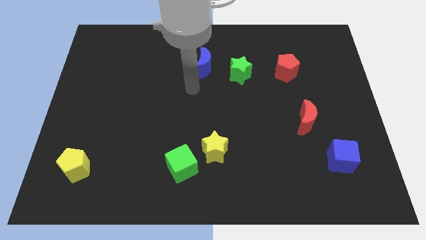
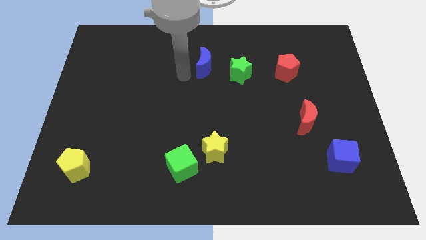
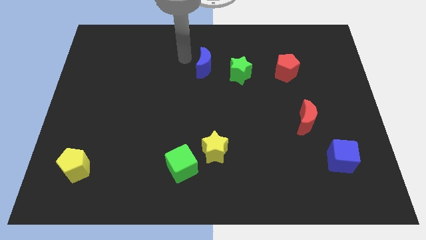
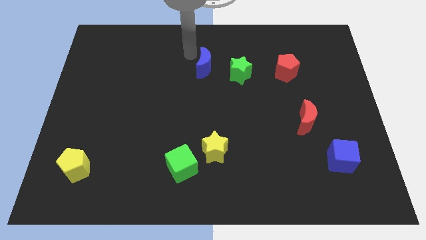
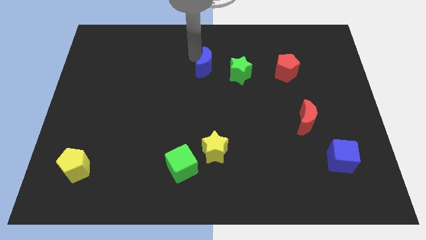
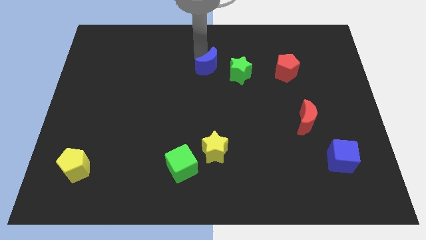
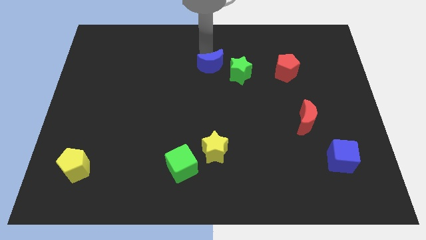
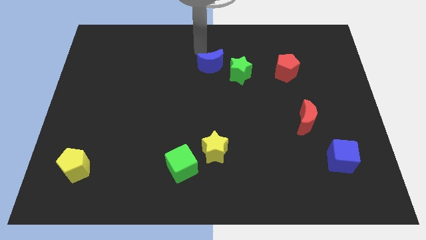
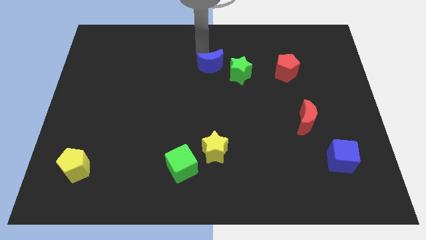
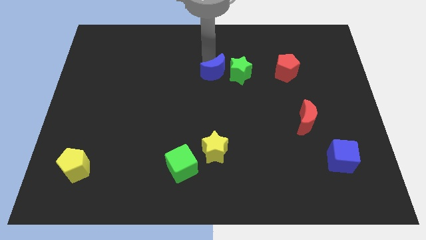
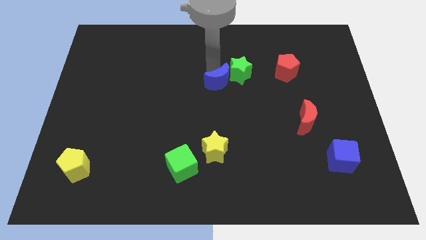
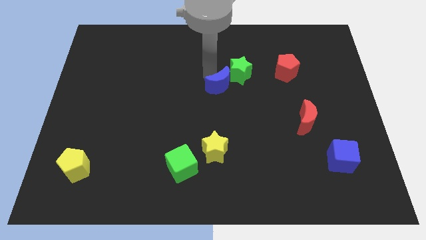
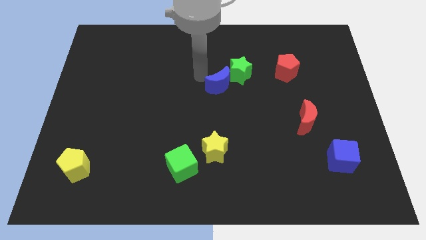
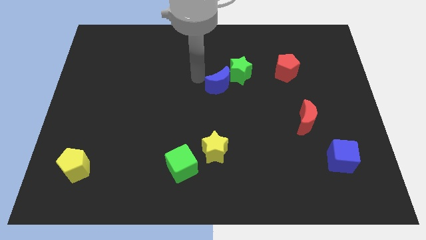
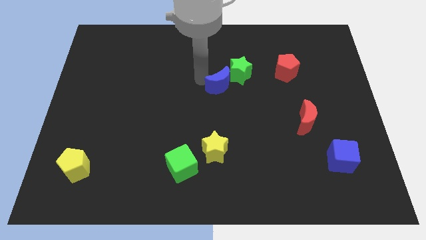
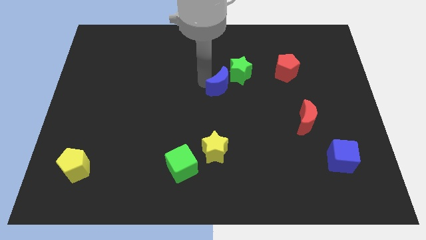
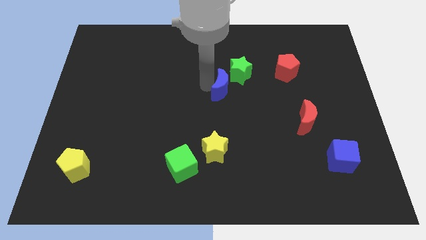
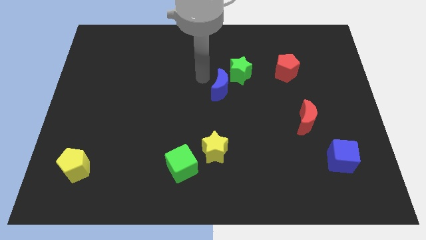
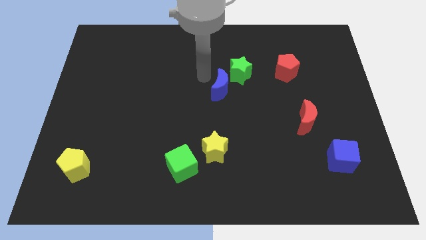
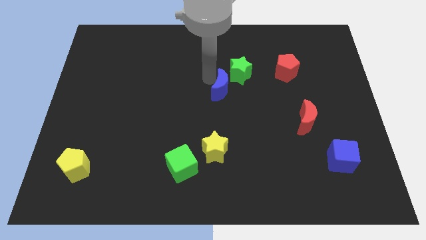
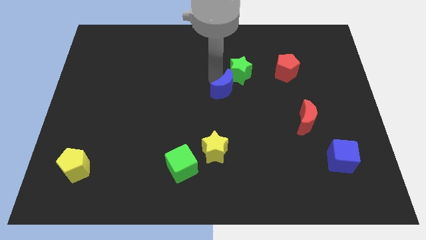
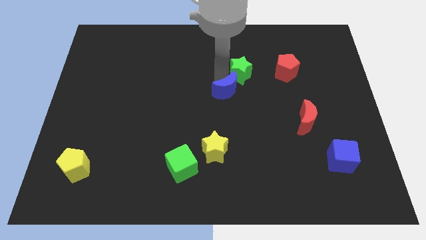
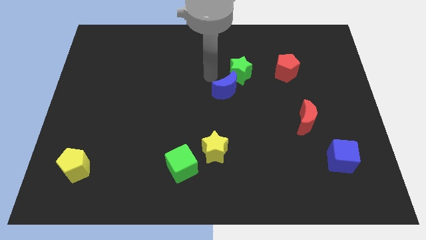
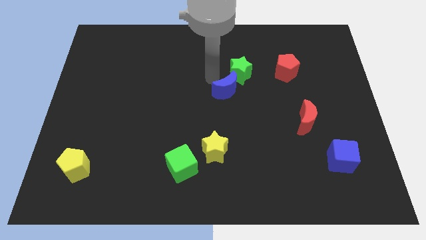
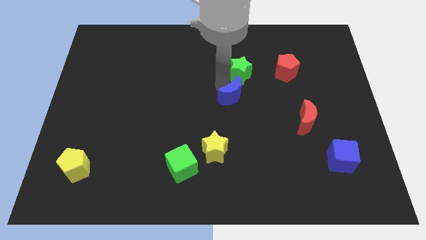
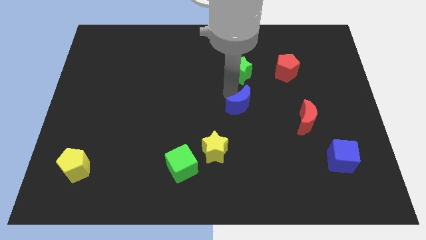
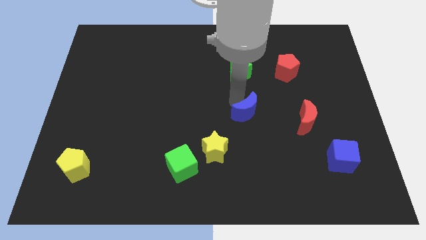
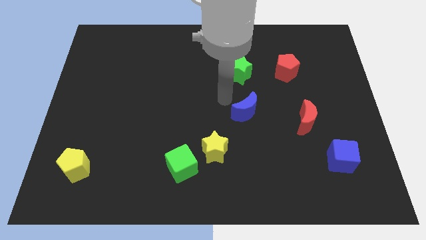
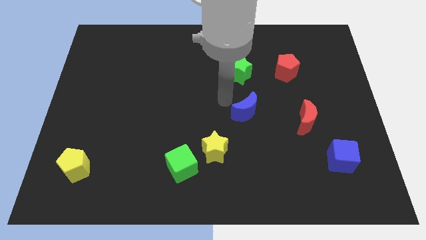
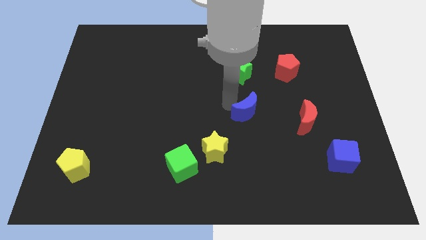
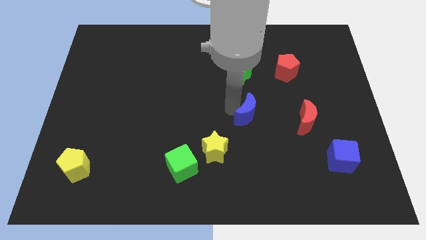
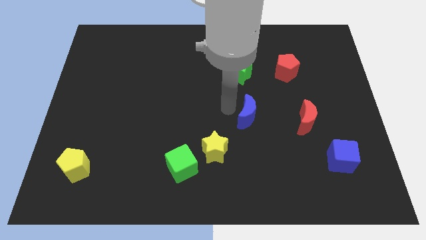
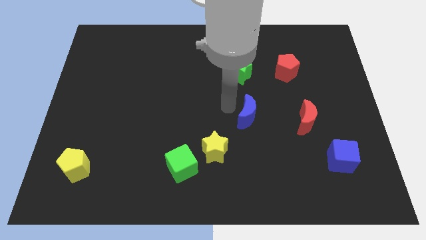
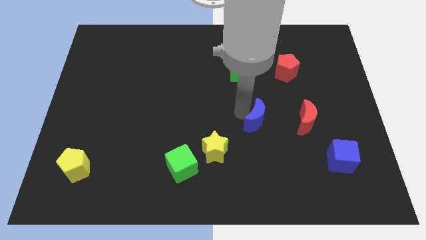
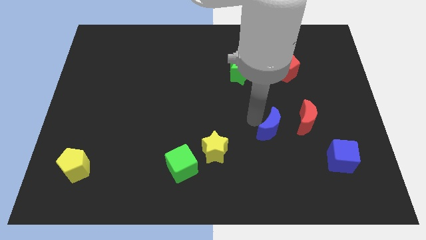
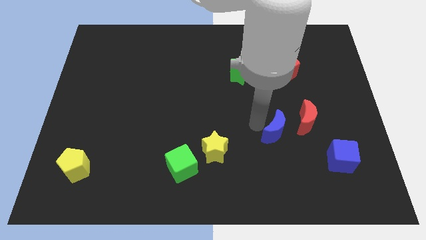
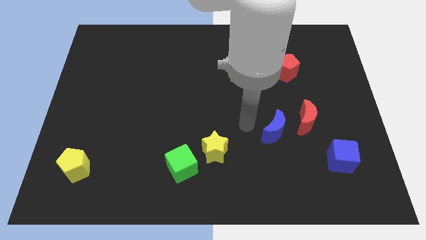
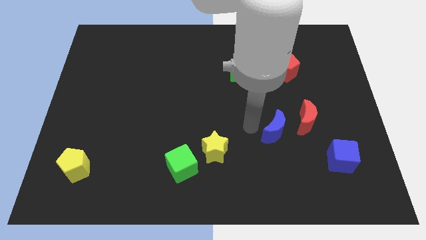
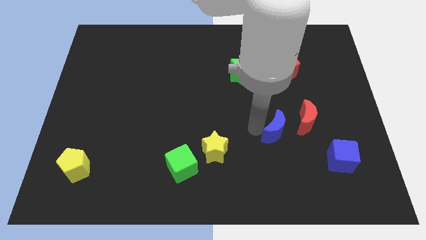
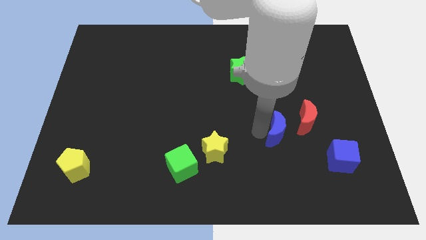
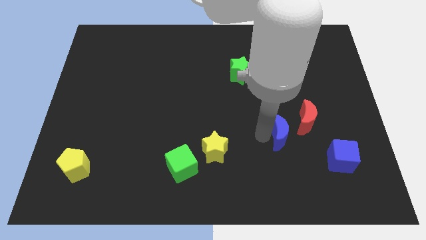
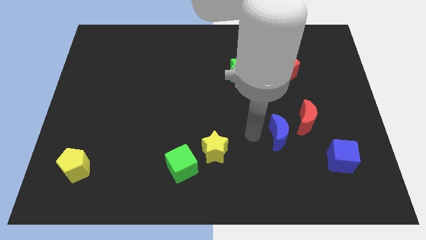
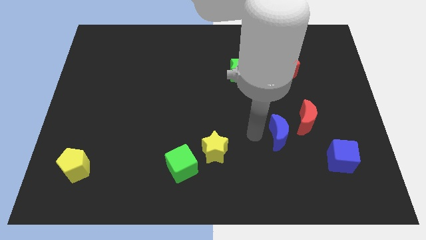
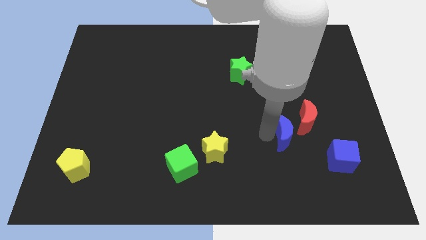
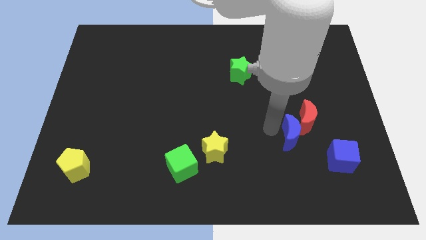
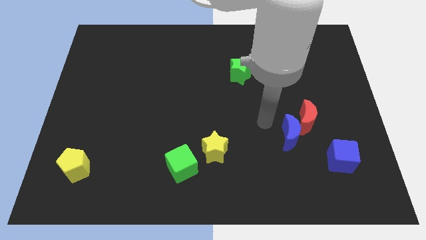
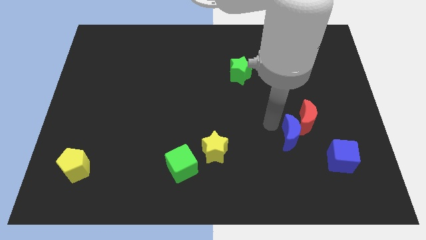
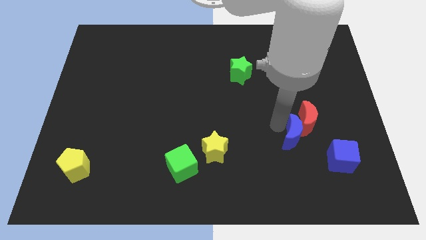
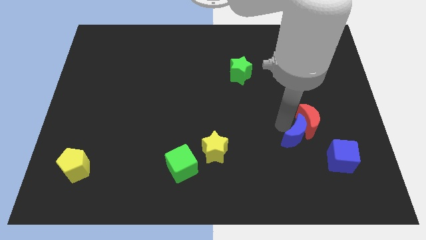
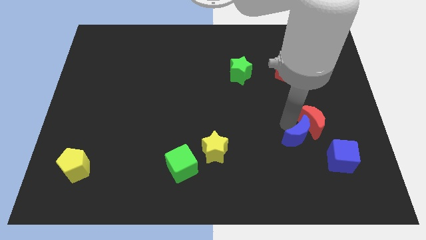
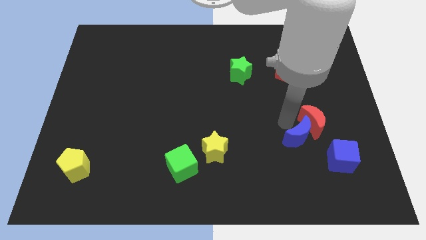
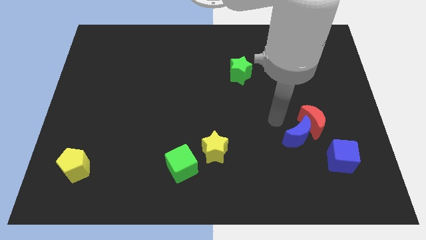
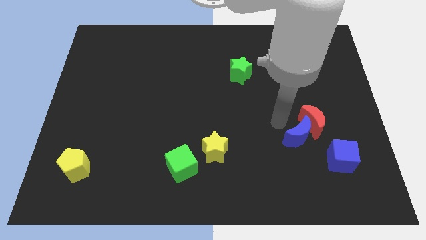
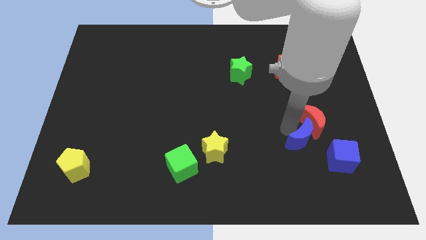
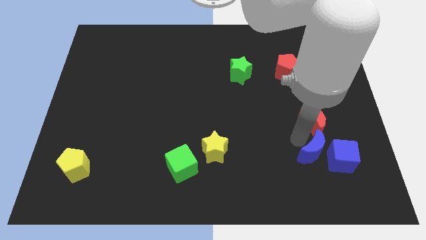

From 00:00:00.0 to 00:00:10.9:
move the blue moon next to the blue cube

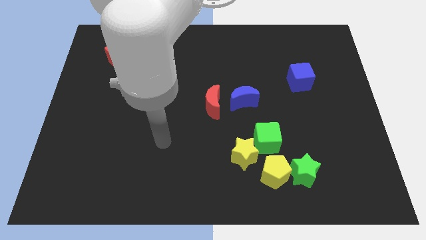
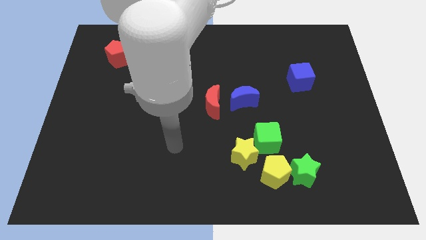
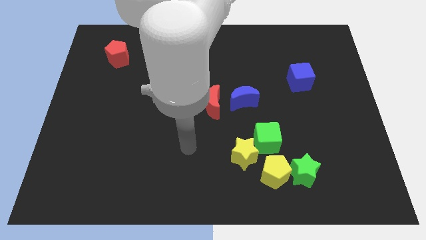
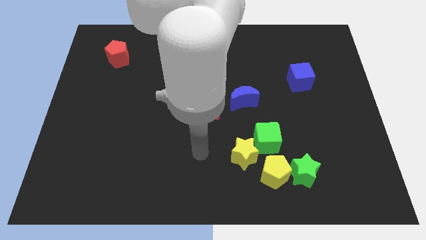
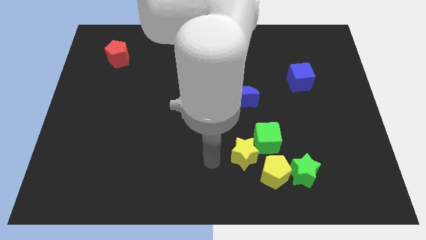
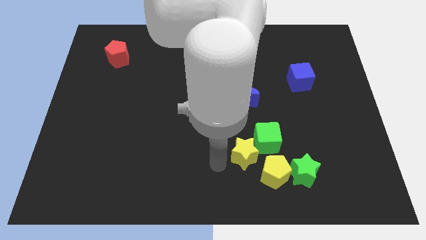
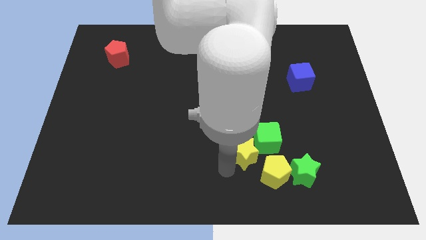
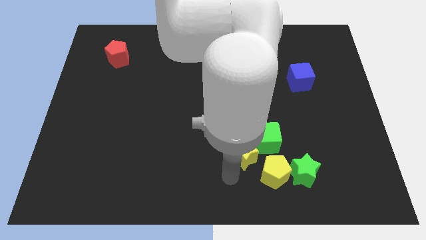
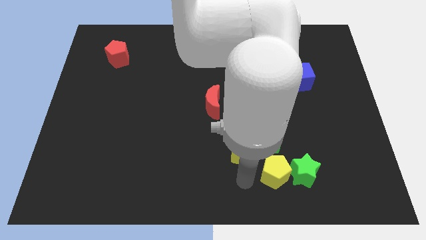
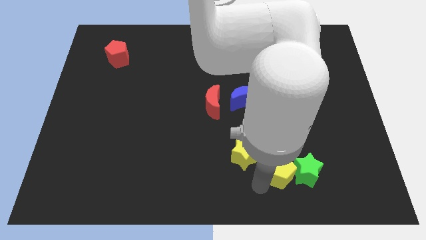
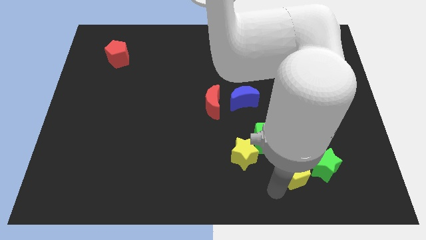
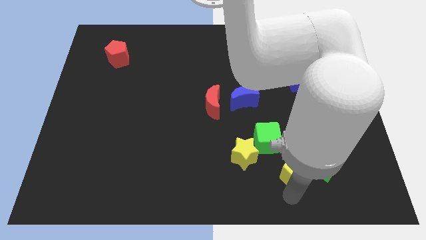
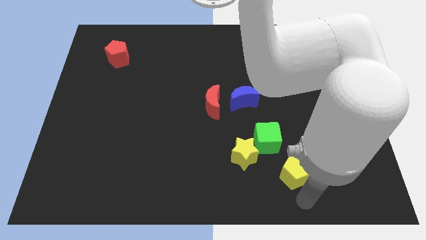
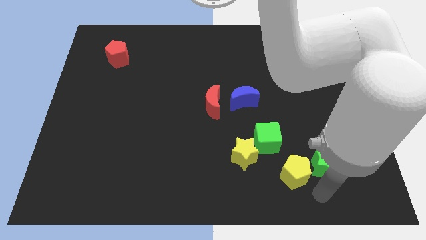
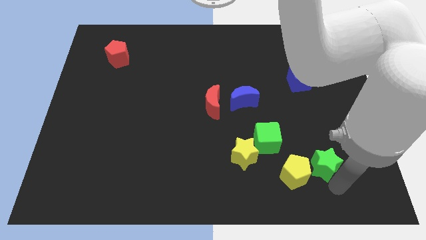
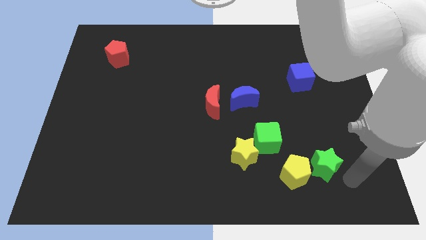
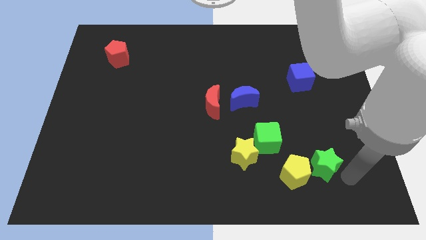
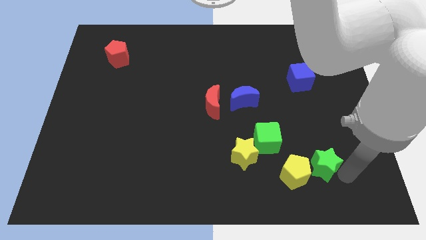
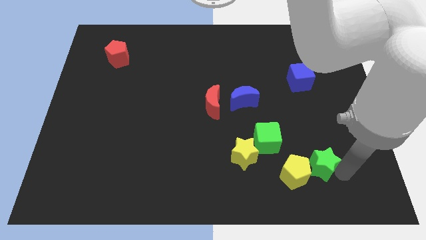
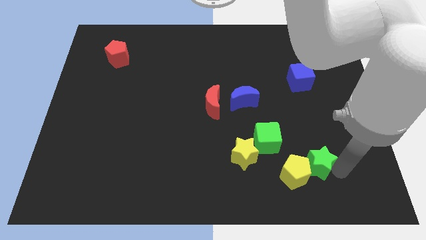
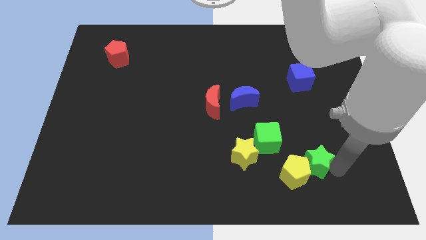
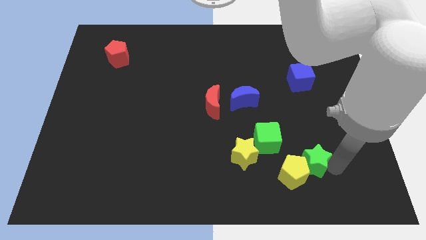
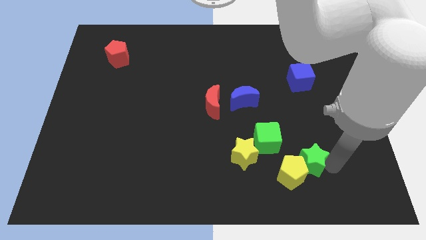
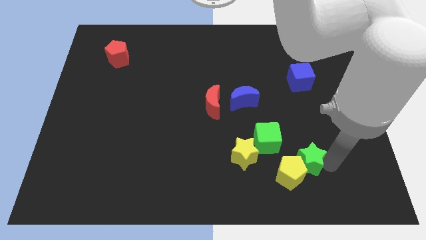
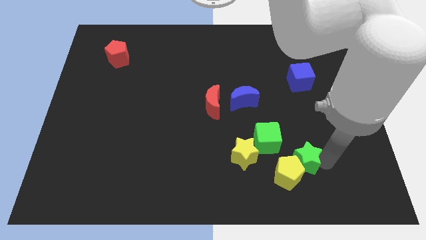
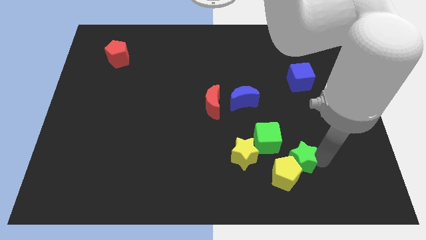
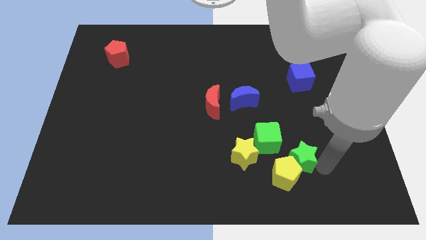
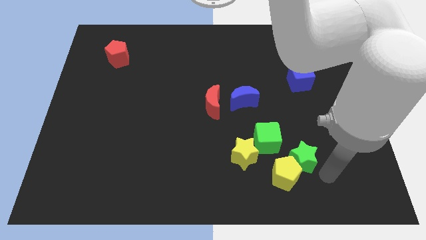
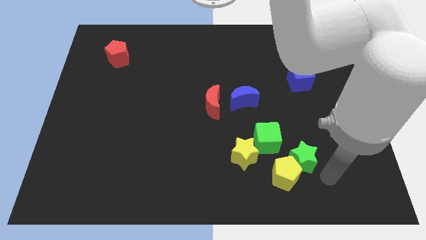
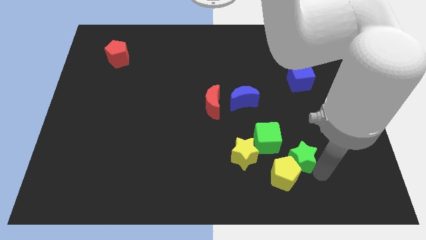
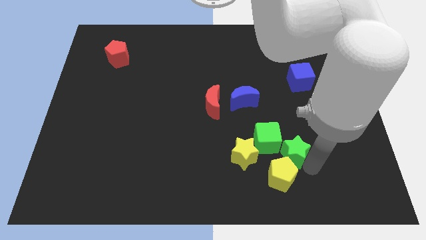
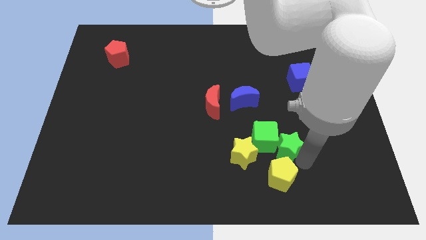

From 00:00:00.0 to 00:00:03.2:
put the green star towards the green cube

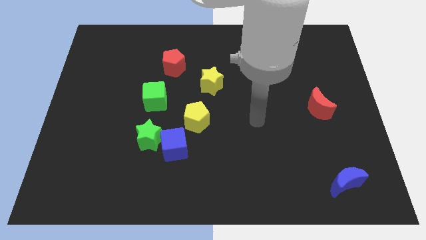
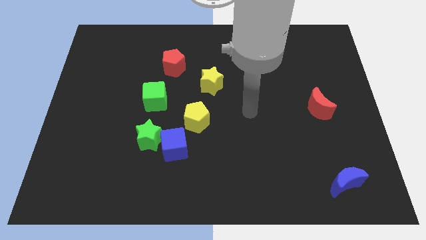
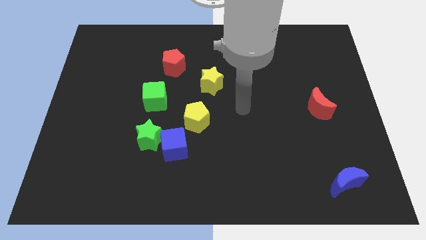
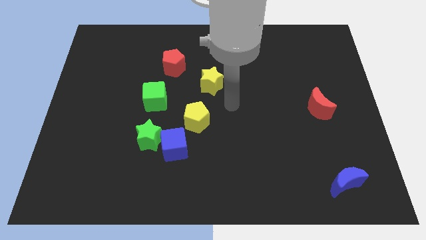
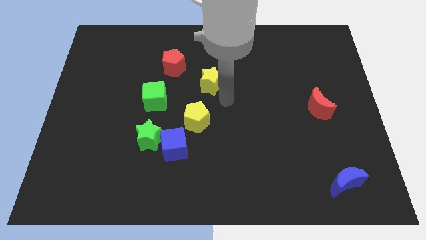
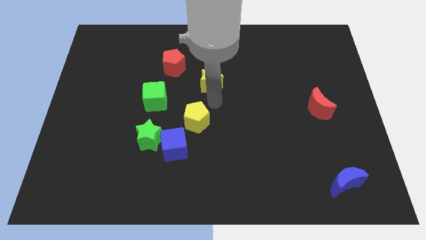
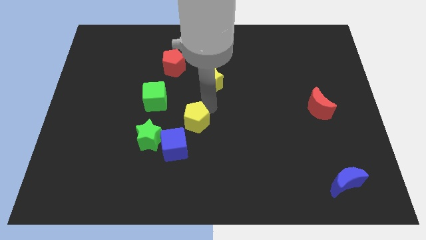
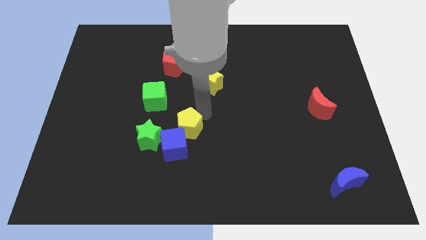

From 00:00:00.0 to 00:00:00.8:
slide the yellow pentagon close to the blue cube
